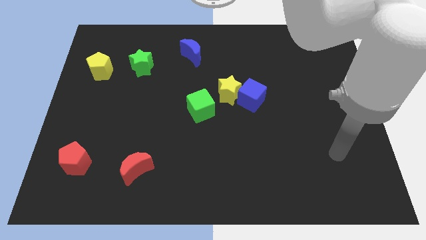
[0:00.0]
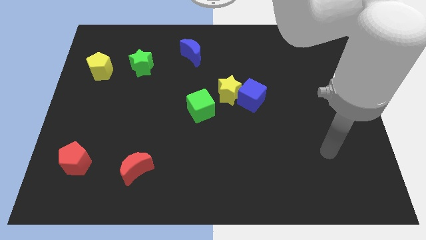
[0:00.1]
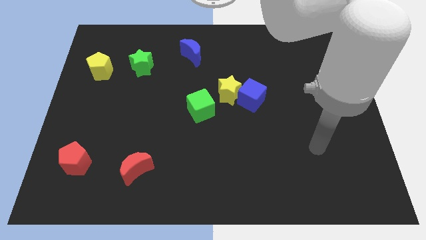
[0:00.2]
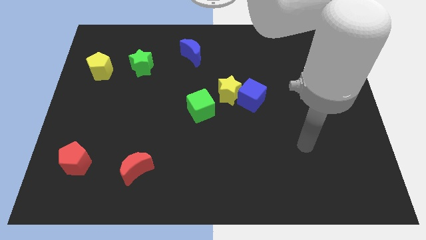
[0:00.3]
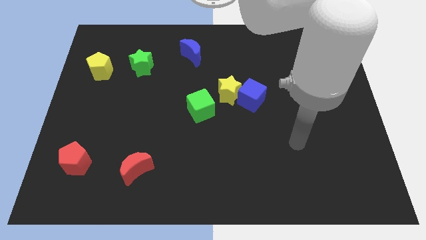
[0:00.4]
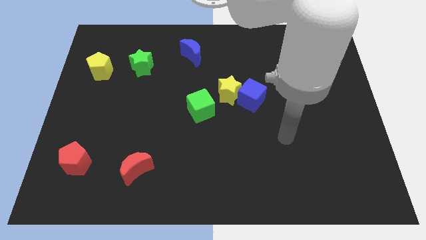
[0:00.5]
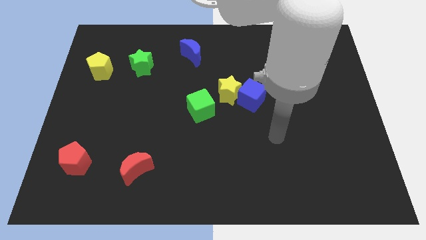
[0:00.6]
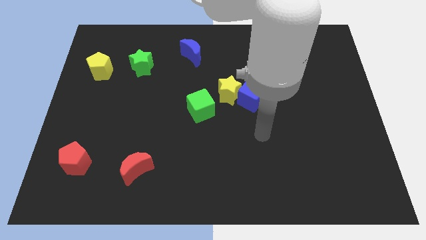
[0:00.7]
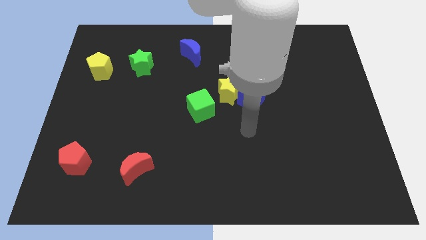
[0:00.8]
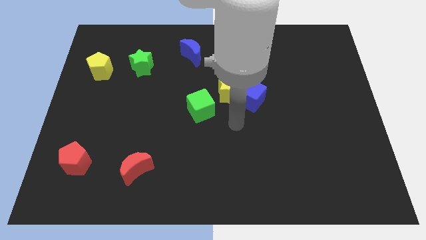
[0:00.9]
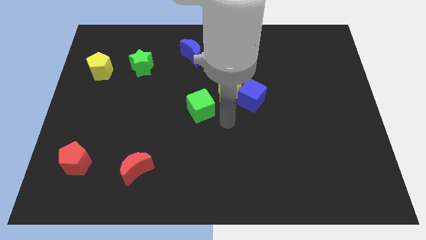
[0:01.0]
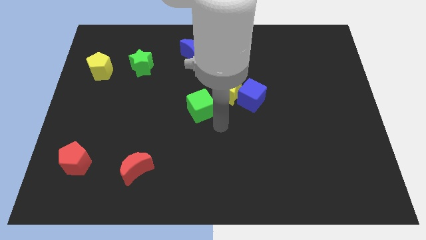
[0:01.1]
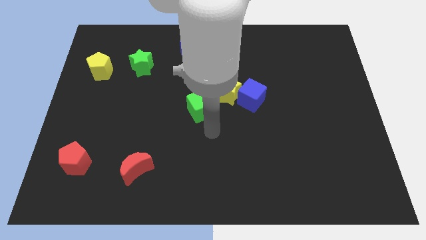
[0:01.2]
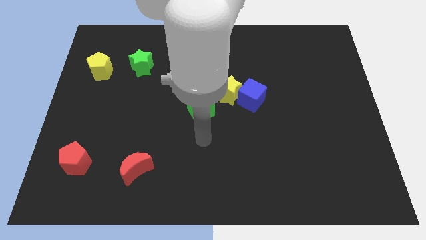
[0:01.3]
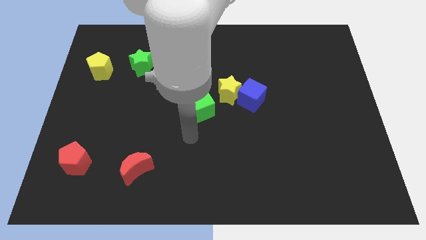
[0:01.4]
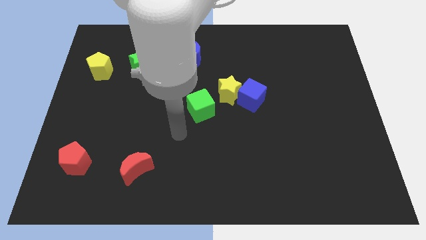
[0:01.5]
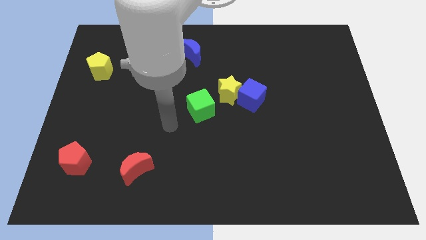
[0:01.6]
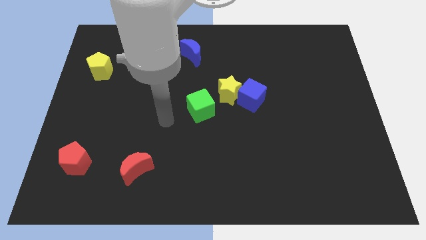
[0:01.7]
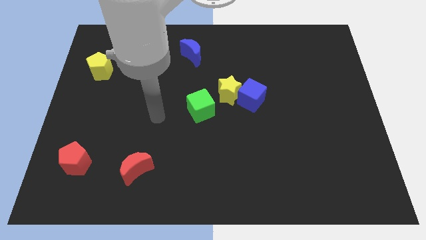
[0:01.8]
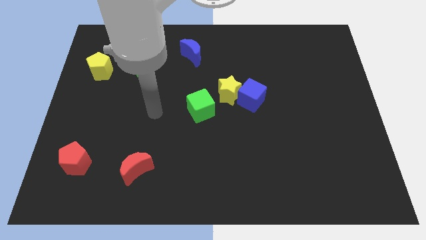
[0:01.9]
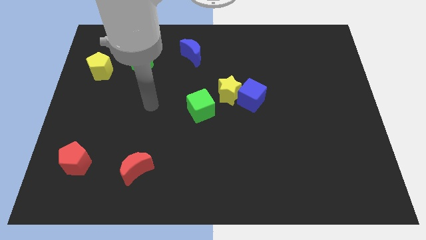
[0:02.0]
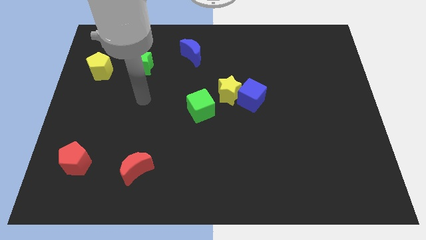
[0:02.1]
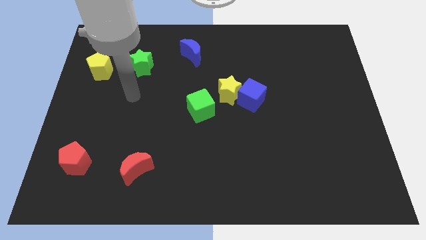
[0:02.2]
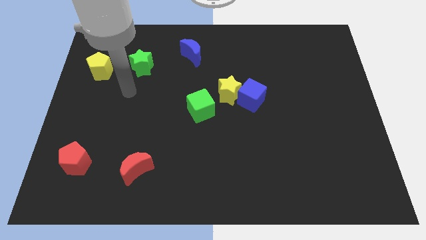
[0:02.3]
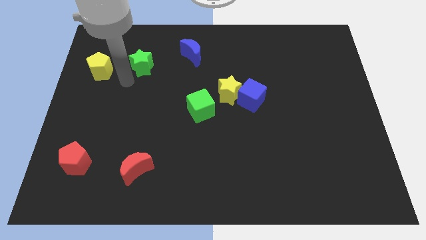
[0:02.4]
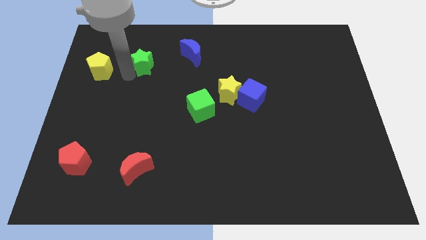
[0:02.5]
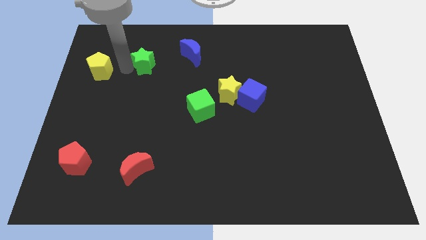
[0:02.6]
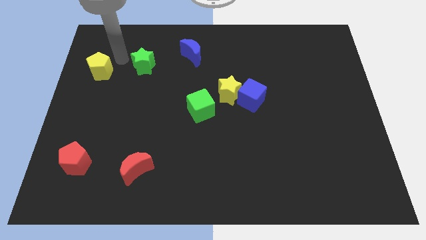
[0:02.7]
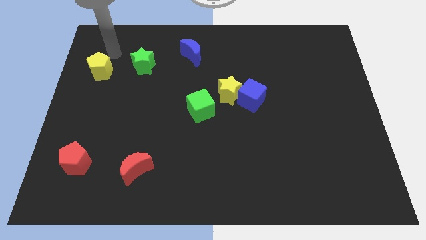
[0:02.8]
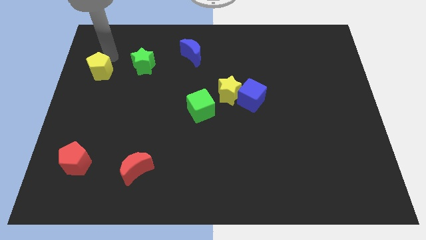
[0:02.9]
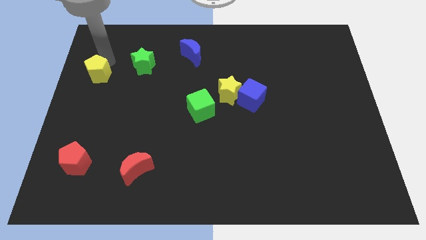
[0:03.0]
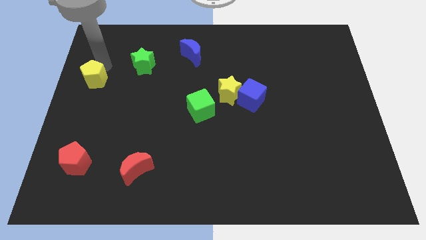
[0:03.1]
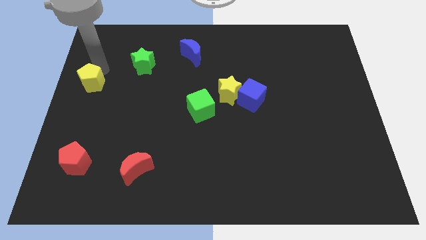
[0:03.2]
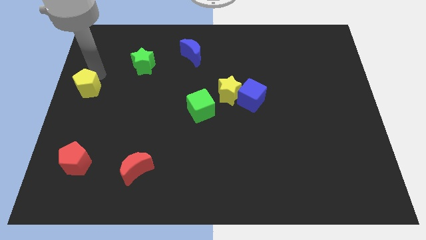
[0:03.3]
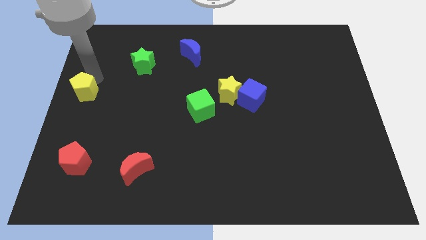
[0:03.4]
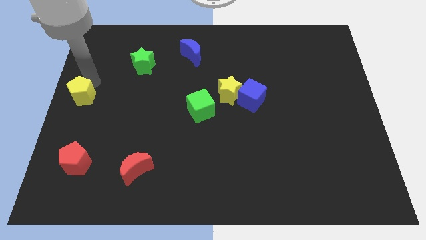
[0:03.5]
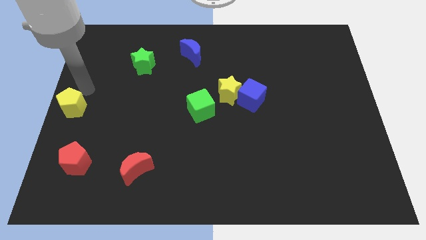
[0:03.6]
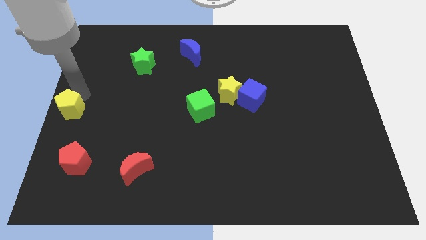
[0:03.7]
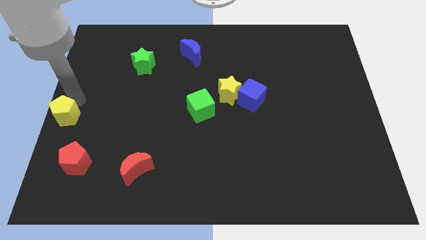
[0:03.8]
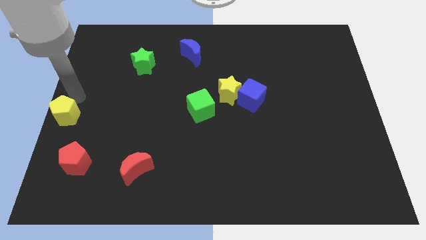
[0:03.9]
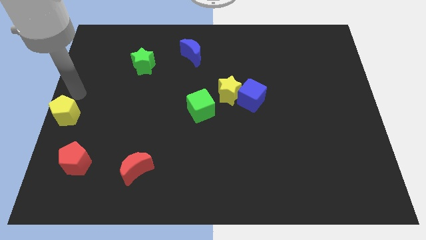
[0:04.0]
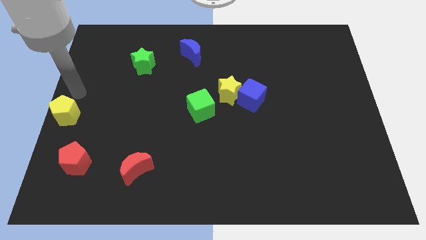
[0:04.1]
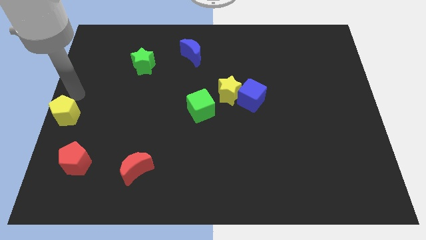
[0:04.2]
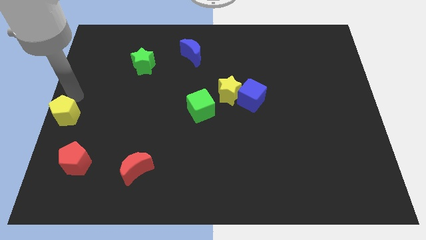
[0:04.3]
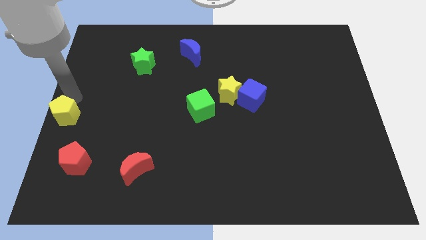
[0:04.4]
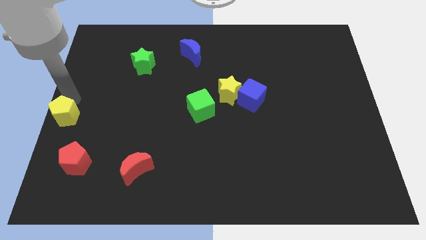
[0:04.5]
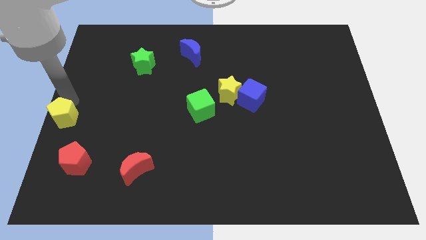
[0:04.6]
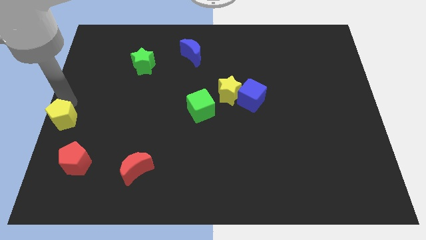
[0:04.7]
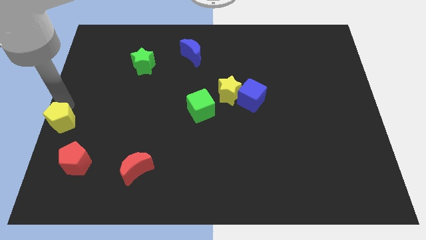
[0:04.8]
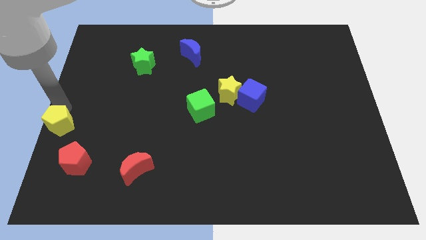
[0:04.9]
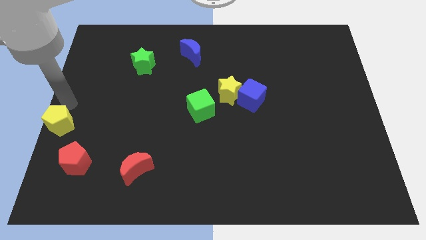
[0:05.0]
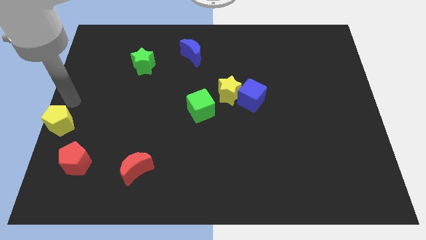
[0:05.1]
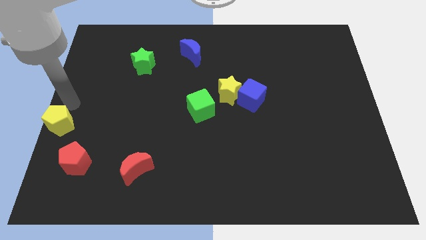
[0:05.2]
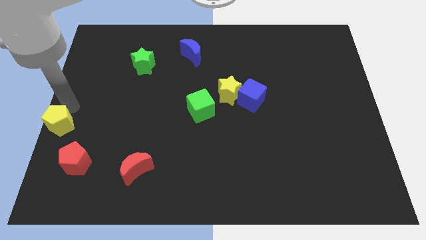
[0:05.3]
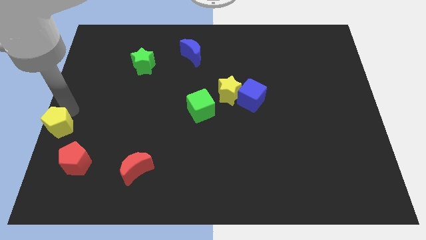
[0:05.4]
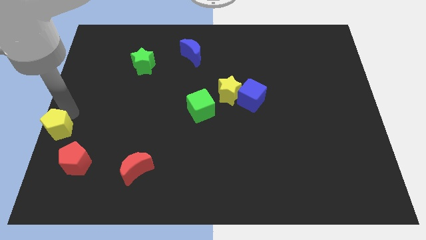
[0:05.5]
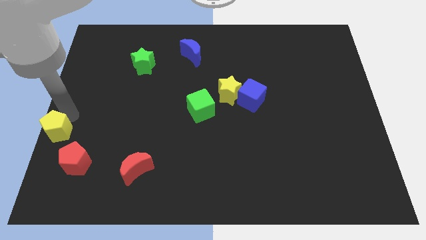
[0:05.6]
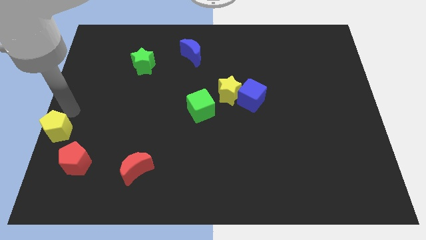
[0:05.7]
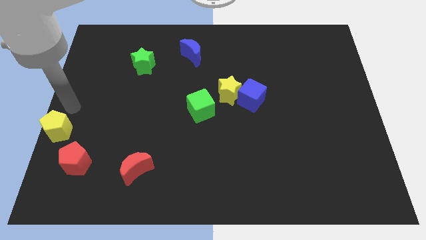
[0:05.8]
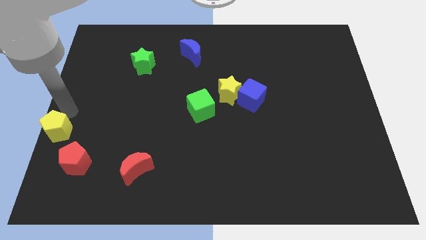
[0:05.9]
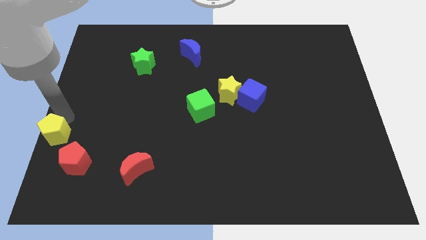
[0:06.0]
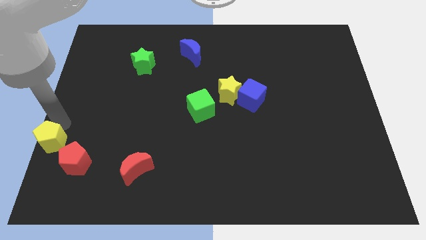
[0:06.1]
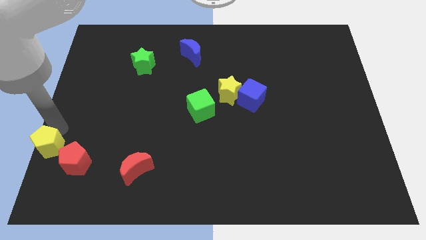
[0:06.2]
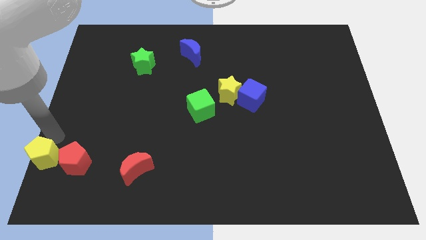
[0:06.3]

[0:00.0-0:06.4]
move the yellow pentagon to the bottom left corner
